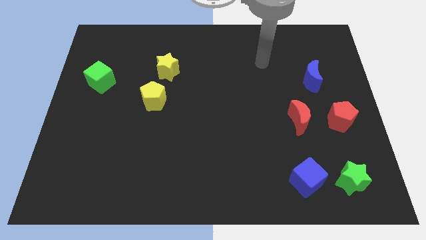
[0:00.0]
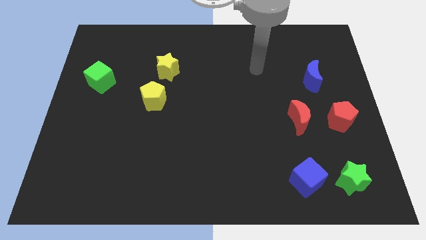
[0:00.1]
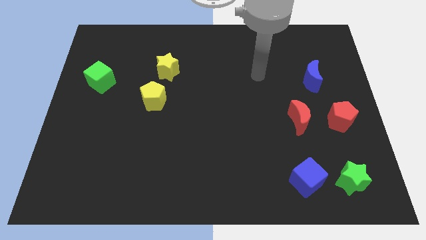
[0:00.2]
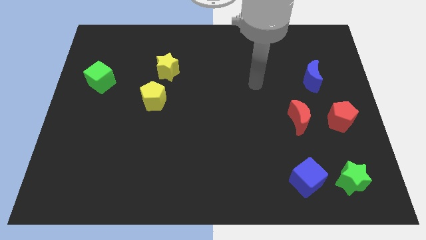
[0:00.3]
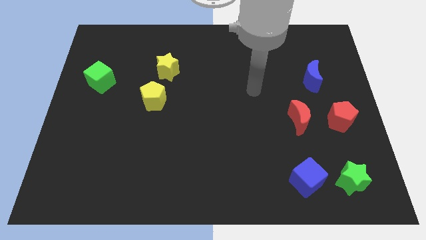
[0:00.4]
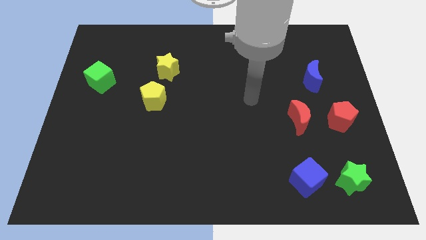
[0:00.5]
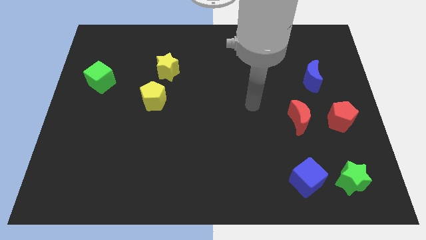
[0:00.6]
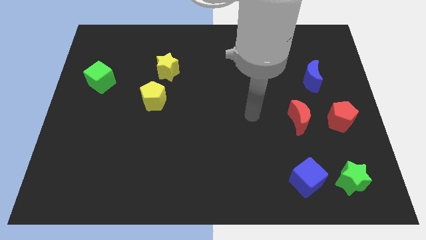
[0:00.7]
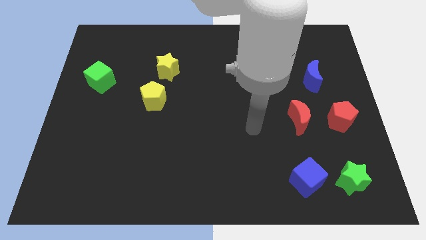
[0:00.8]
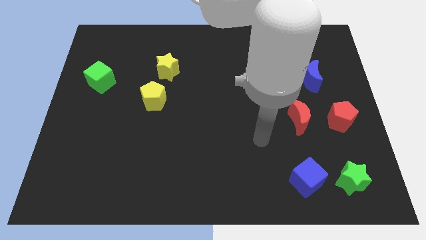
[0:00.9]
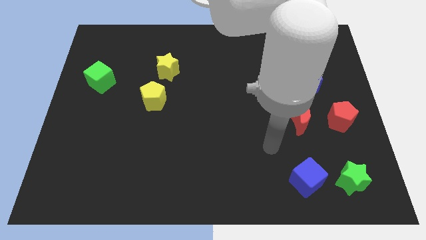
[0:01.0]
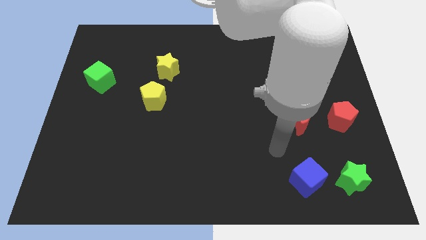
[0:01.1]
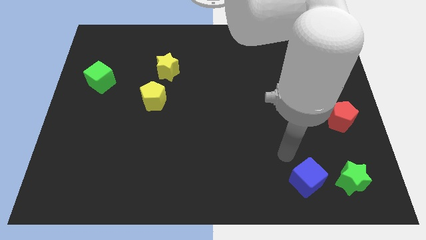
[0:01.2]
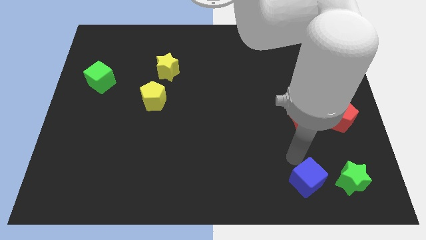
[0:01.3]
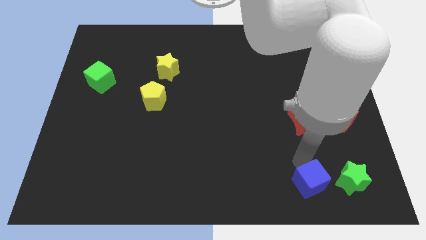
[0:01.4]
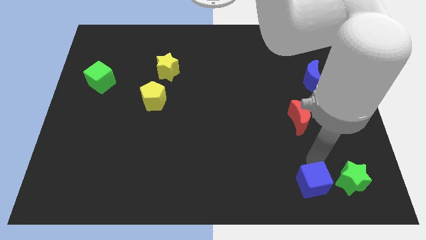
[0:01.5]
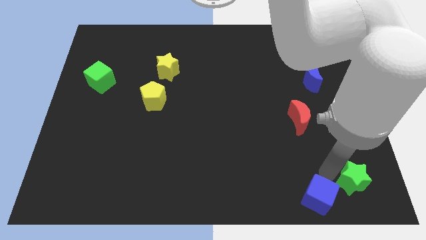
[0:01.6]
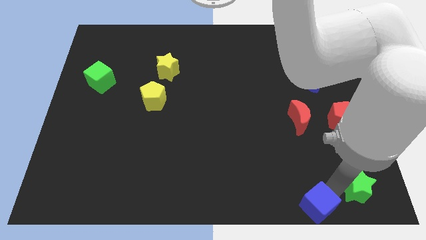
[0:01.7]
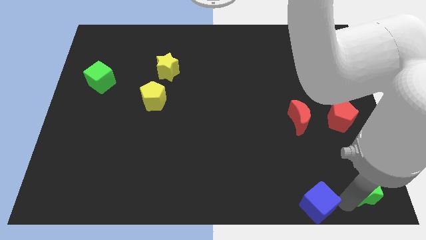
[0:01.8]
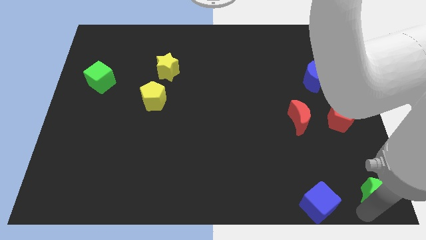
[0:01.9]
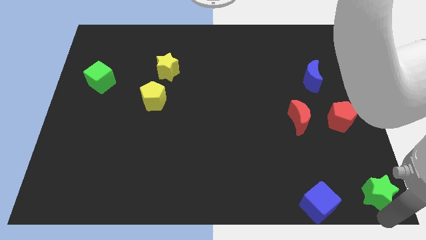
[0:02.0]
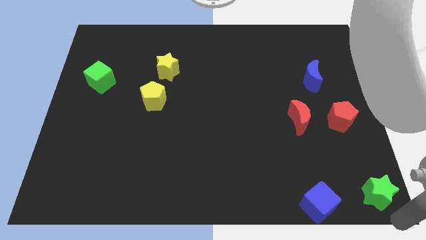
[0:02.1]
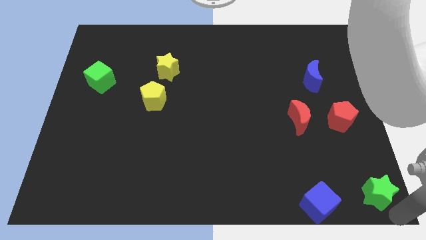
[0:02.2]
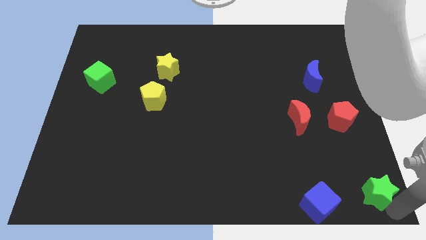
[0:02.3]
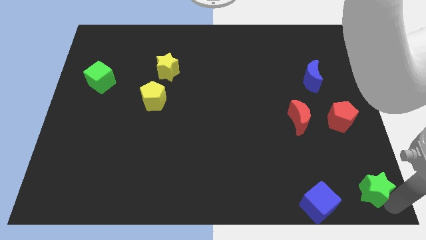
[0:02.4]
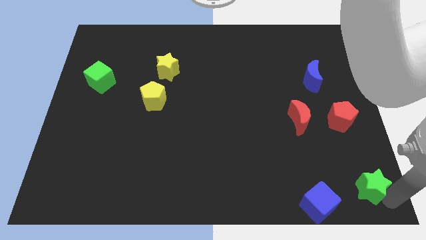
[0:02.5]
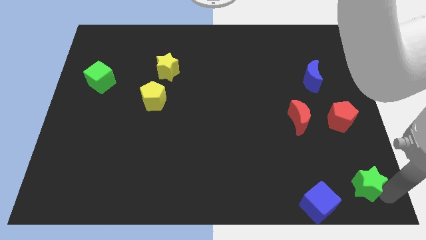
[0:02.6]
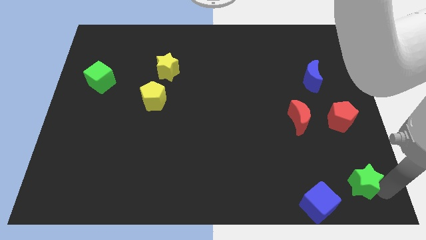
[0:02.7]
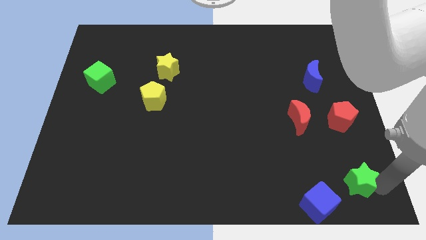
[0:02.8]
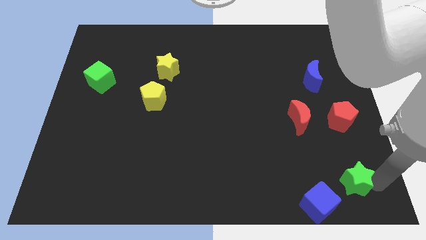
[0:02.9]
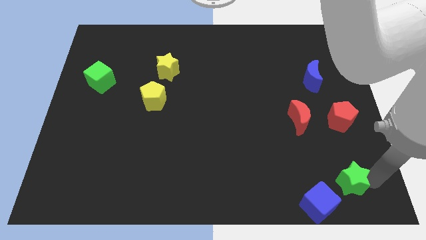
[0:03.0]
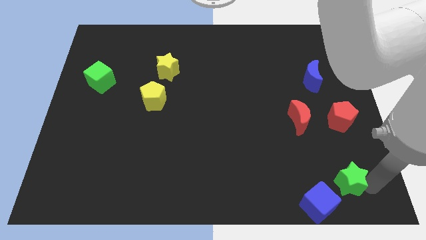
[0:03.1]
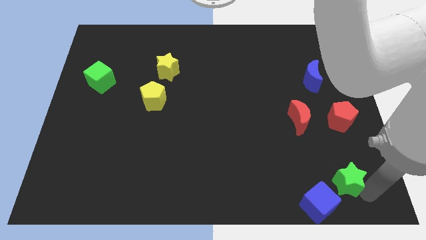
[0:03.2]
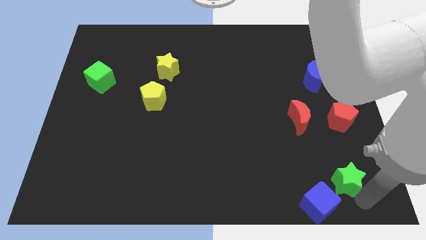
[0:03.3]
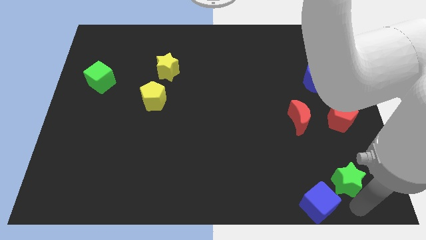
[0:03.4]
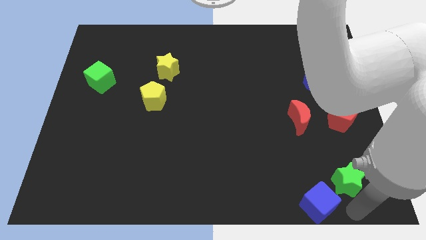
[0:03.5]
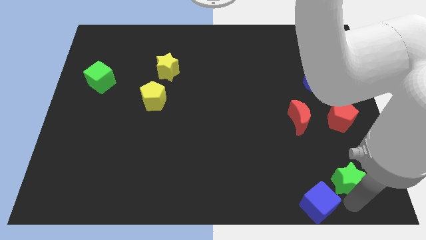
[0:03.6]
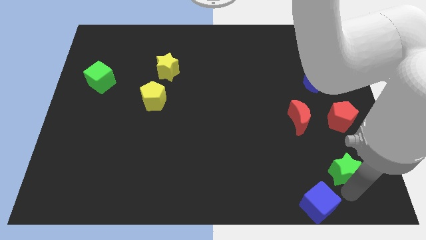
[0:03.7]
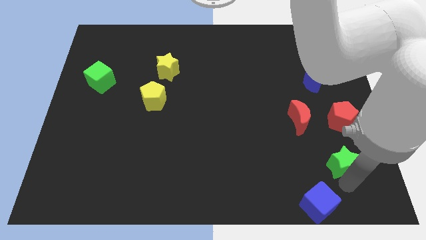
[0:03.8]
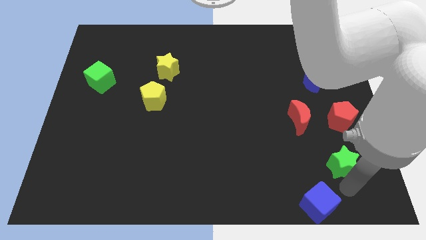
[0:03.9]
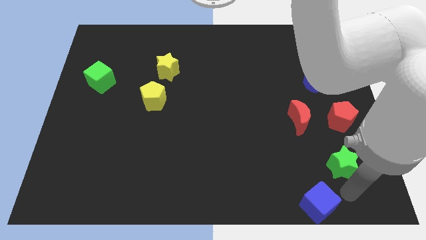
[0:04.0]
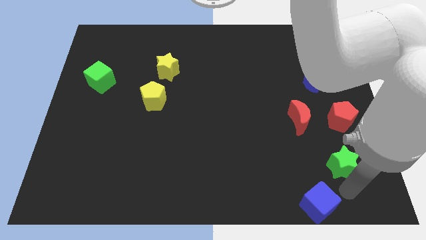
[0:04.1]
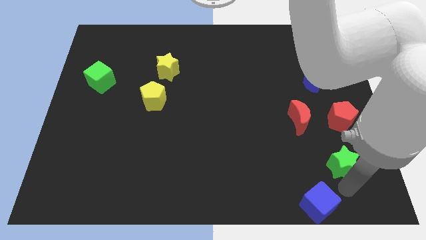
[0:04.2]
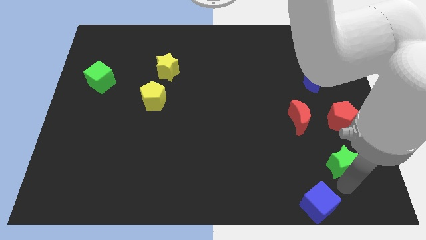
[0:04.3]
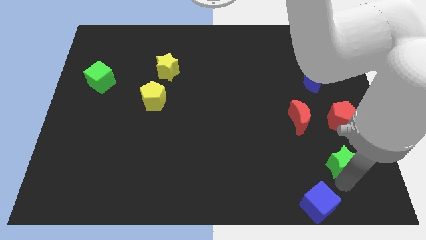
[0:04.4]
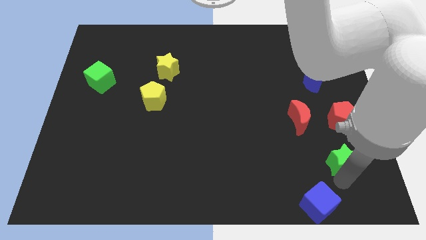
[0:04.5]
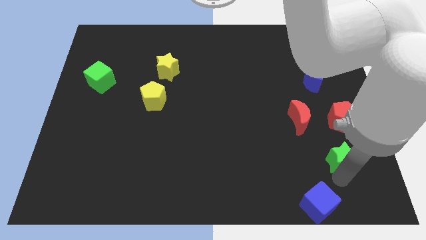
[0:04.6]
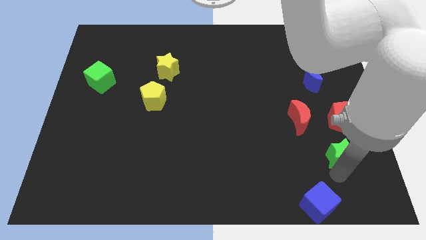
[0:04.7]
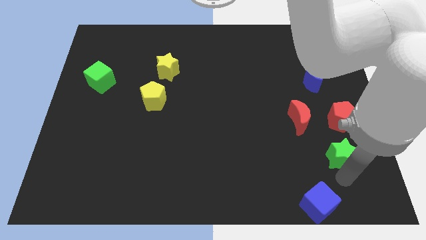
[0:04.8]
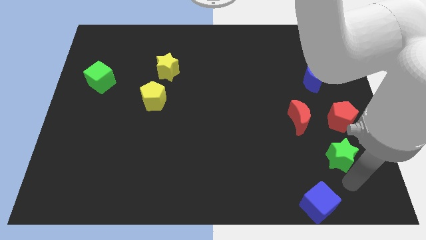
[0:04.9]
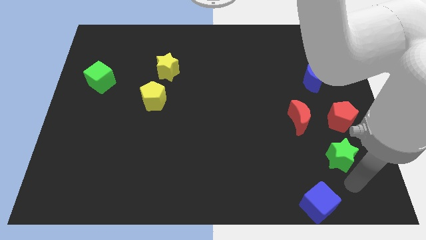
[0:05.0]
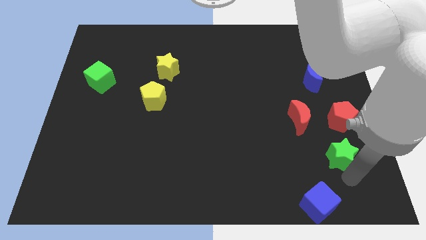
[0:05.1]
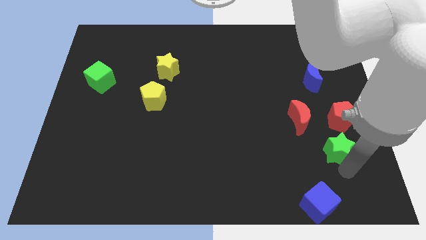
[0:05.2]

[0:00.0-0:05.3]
move the green star upwards somewhat

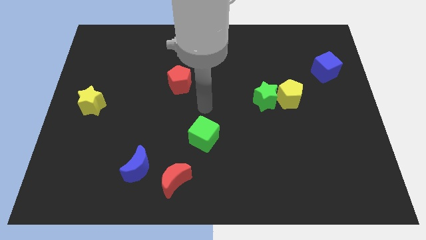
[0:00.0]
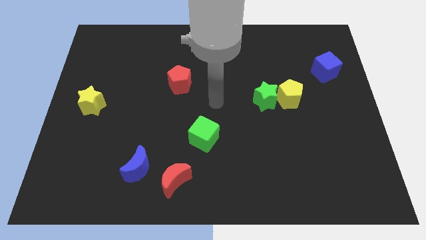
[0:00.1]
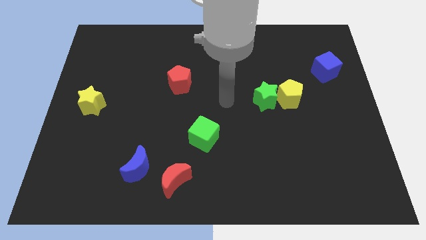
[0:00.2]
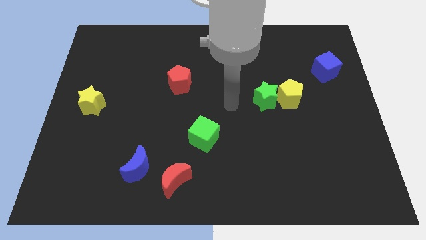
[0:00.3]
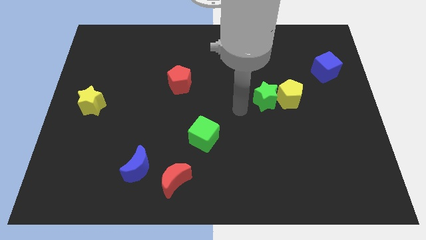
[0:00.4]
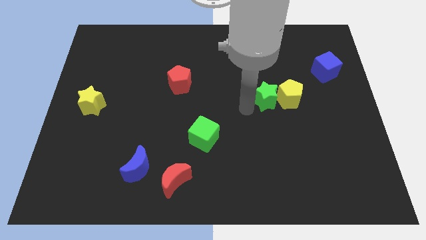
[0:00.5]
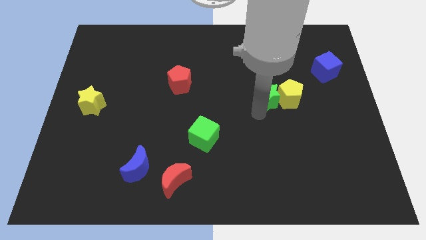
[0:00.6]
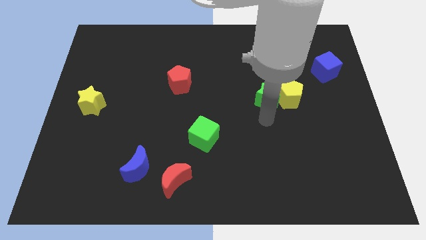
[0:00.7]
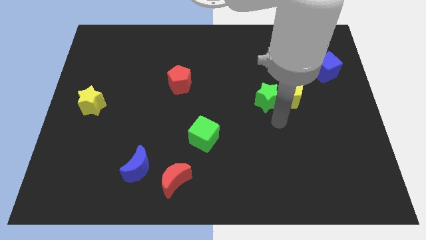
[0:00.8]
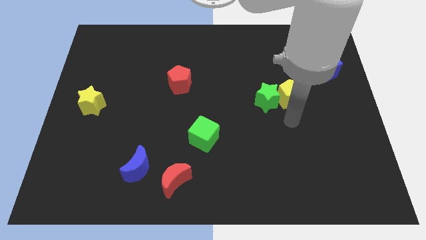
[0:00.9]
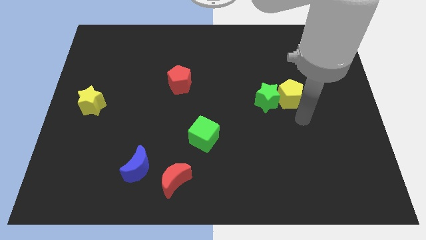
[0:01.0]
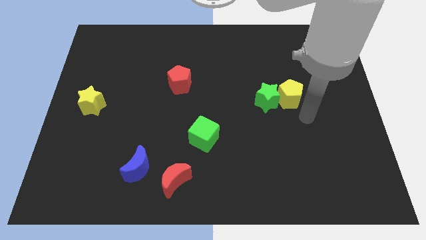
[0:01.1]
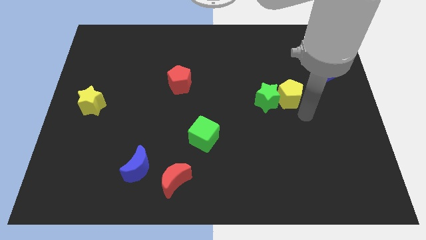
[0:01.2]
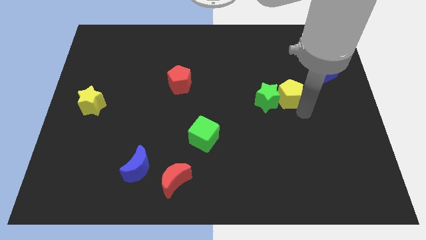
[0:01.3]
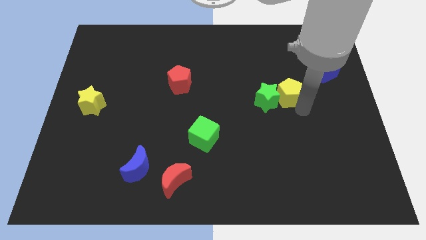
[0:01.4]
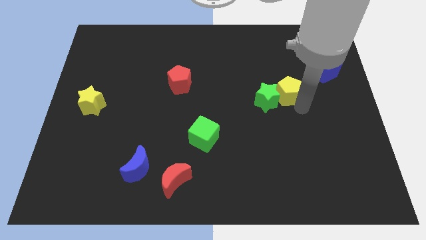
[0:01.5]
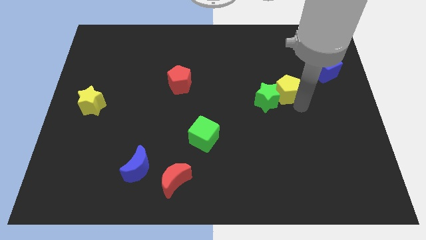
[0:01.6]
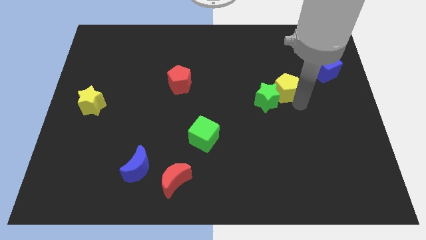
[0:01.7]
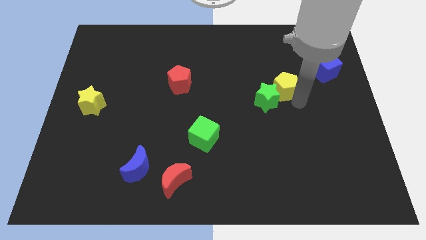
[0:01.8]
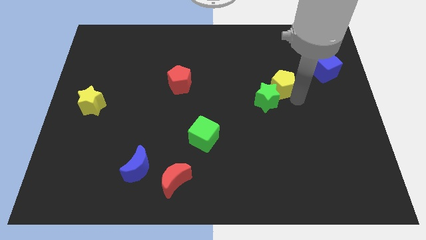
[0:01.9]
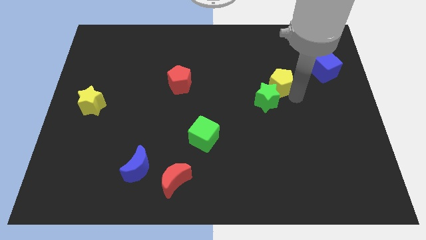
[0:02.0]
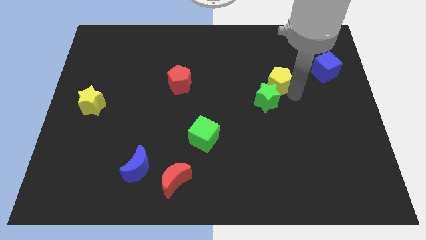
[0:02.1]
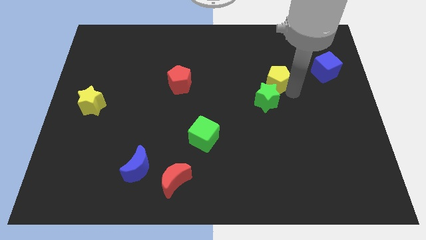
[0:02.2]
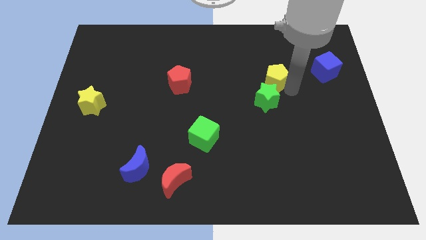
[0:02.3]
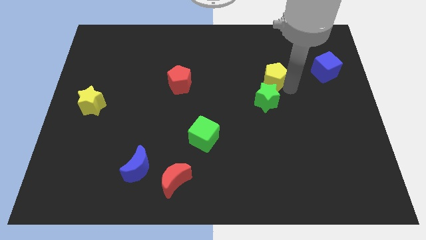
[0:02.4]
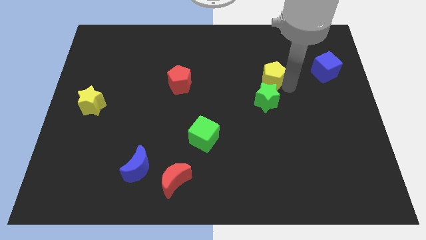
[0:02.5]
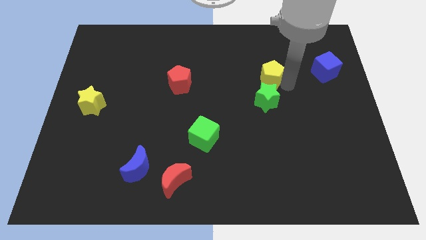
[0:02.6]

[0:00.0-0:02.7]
move the yellow pentagon somewhat diagonally up and left
